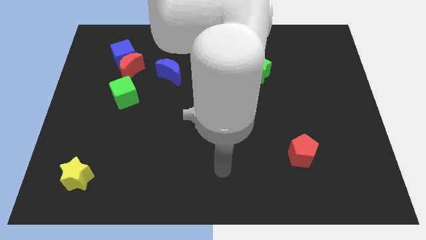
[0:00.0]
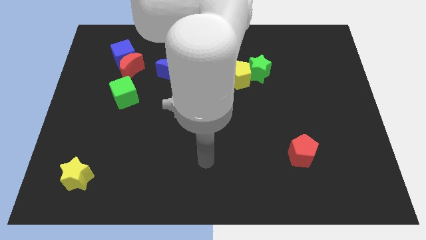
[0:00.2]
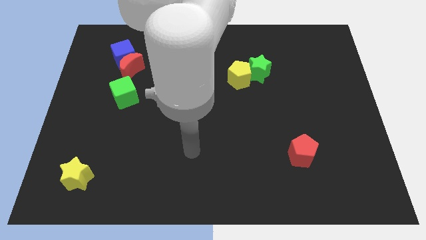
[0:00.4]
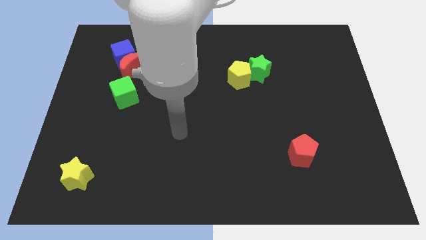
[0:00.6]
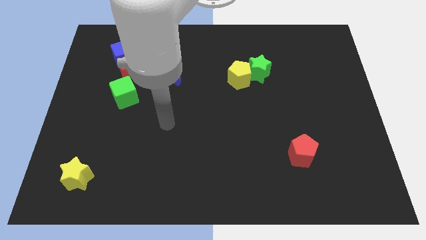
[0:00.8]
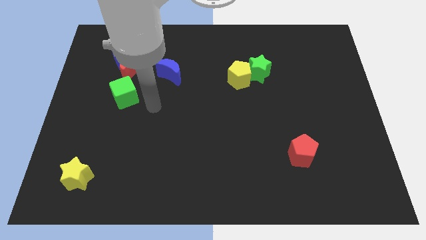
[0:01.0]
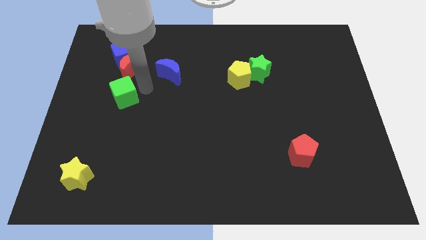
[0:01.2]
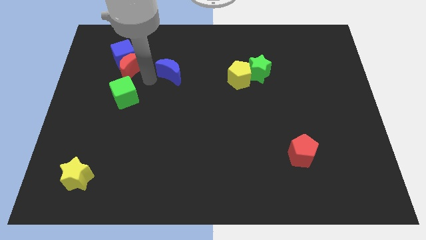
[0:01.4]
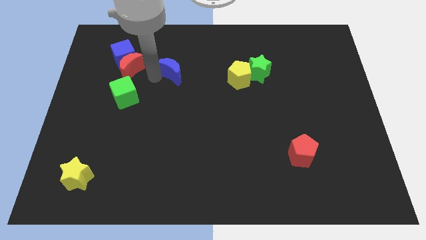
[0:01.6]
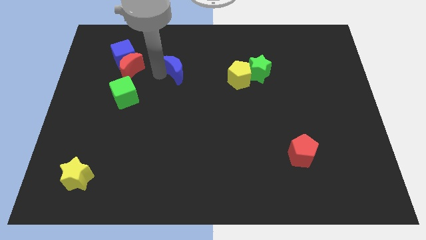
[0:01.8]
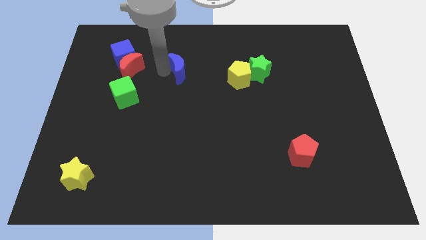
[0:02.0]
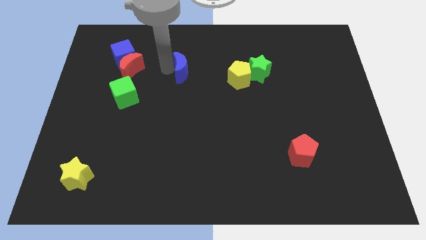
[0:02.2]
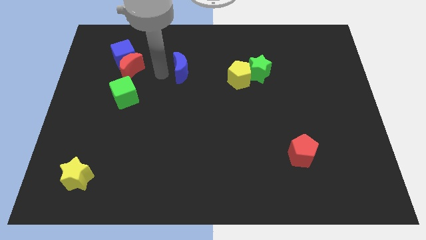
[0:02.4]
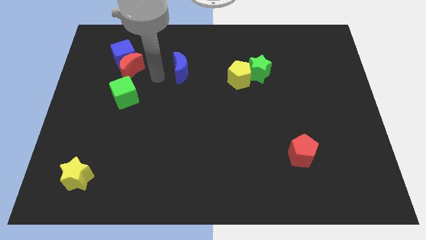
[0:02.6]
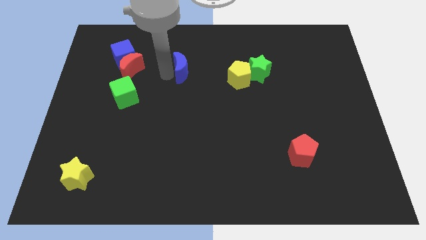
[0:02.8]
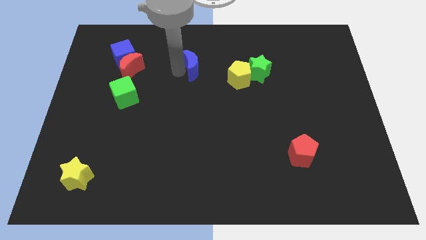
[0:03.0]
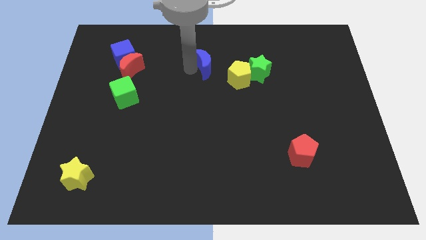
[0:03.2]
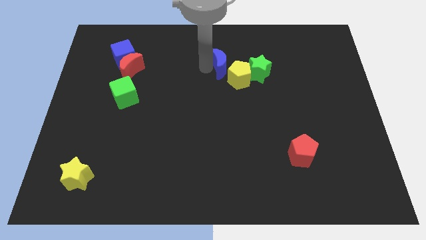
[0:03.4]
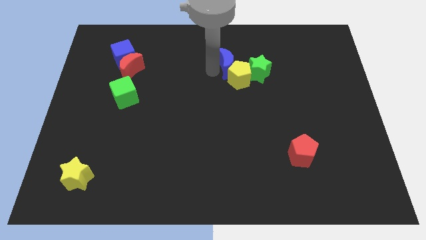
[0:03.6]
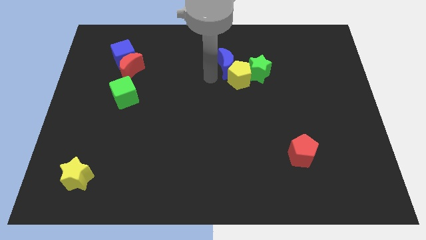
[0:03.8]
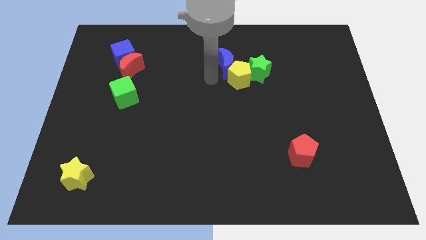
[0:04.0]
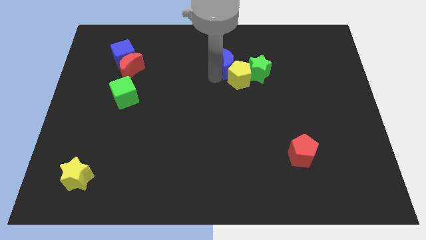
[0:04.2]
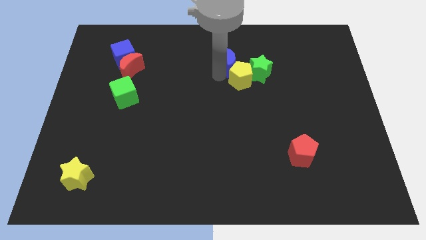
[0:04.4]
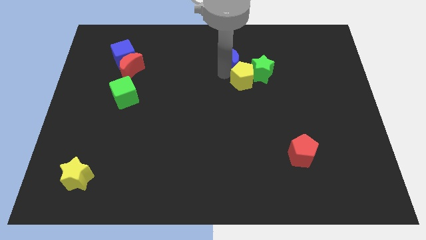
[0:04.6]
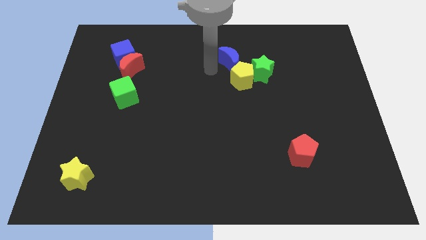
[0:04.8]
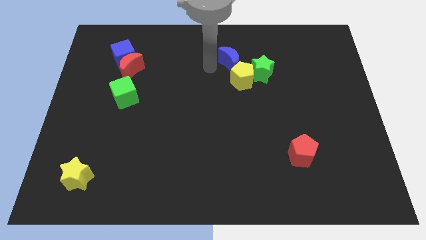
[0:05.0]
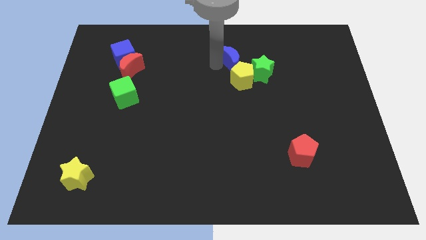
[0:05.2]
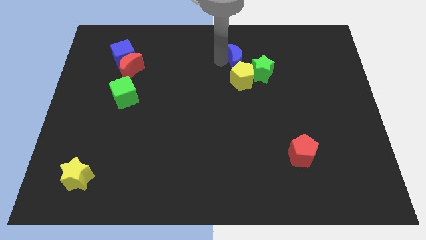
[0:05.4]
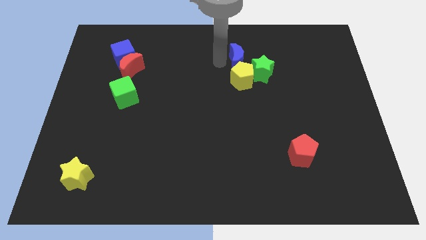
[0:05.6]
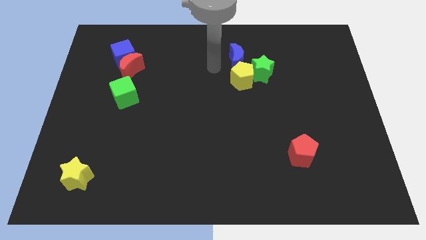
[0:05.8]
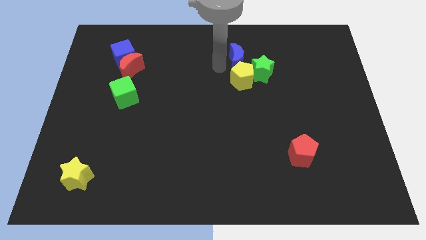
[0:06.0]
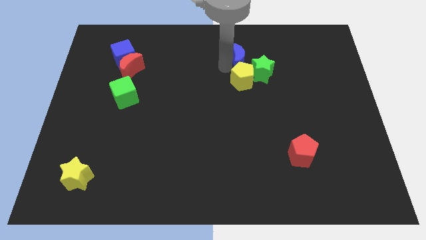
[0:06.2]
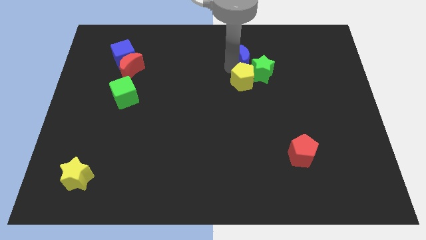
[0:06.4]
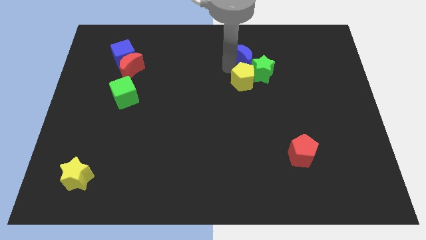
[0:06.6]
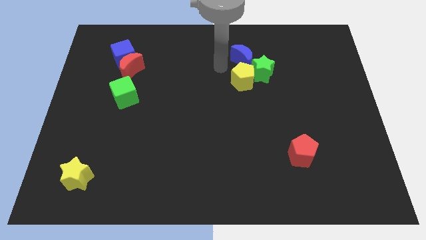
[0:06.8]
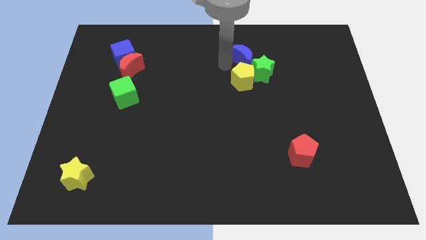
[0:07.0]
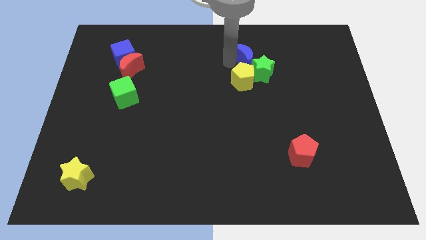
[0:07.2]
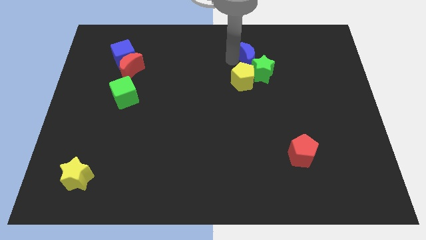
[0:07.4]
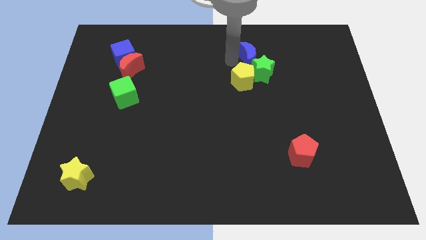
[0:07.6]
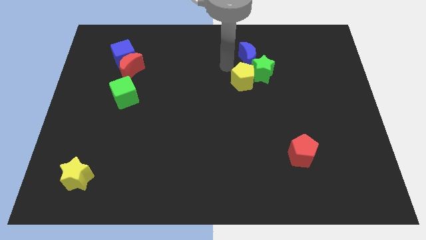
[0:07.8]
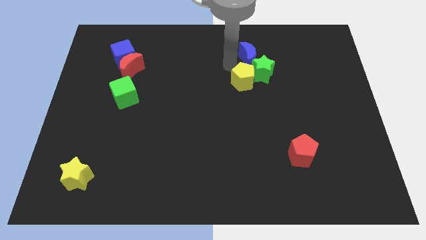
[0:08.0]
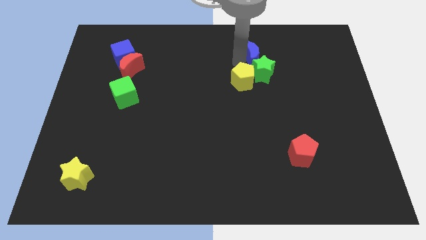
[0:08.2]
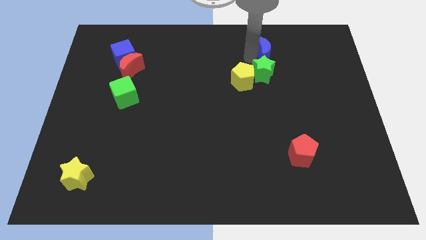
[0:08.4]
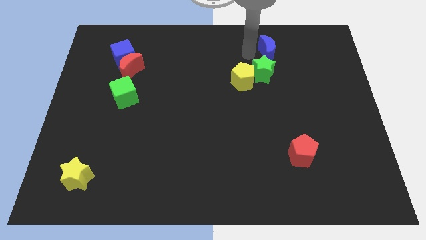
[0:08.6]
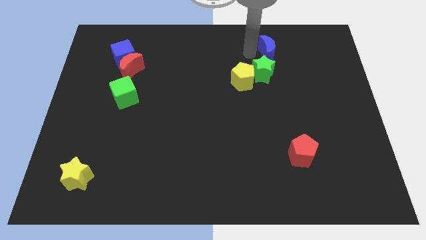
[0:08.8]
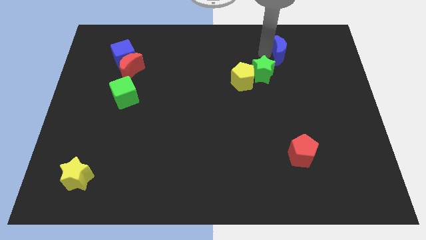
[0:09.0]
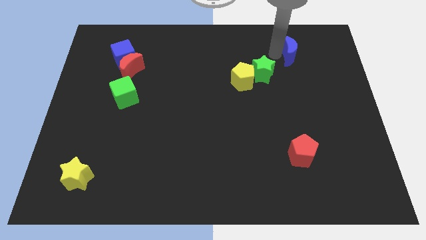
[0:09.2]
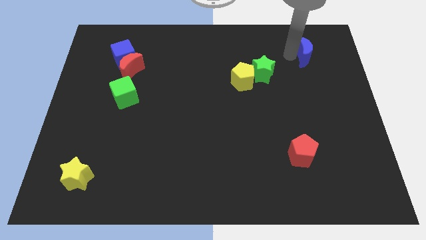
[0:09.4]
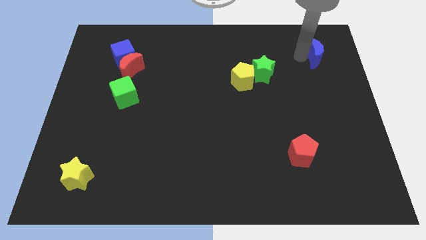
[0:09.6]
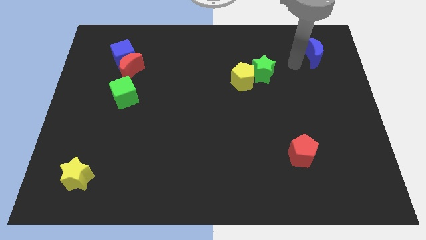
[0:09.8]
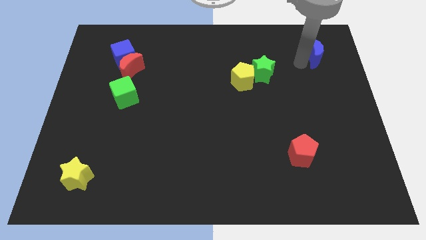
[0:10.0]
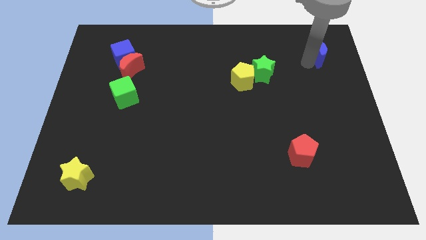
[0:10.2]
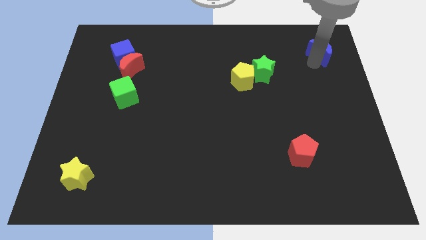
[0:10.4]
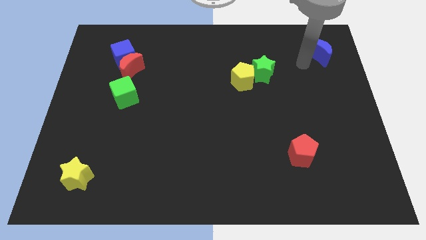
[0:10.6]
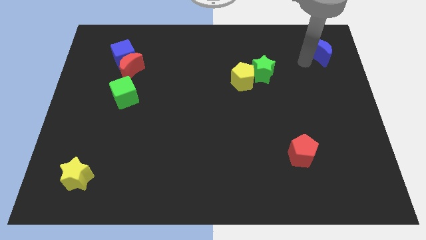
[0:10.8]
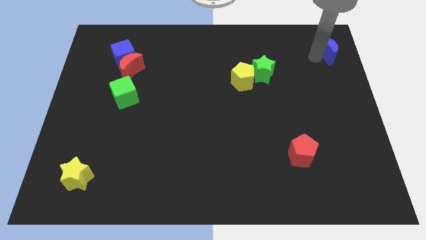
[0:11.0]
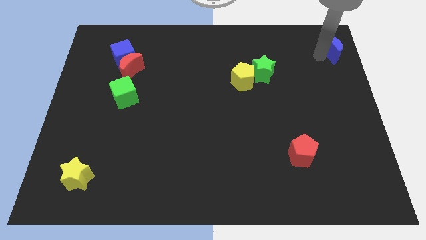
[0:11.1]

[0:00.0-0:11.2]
put the blue moon to the top right

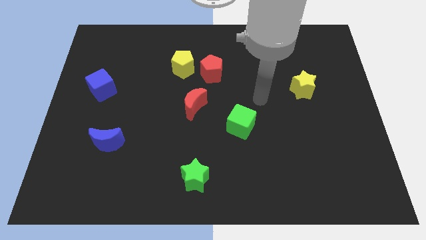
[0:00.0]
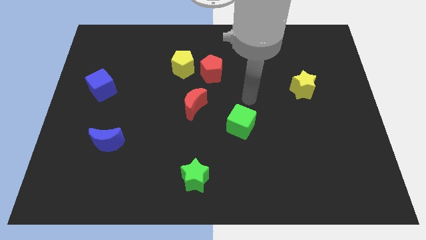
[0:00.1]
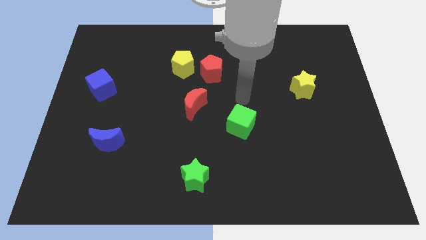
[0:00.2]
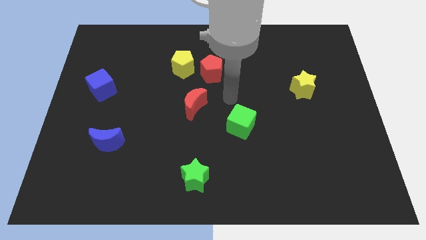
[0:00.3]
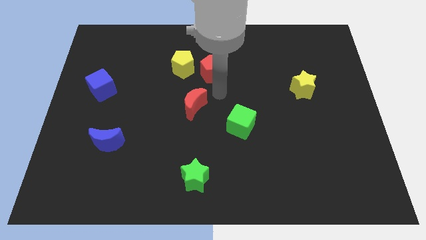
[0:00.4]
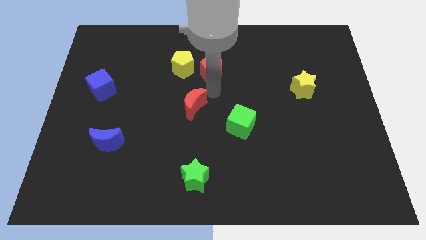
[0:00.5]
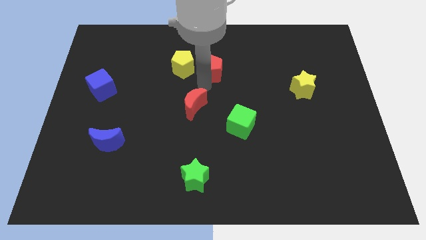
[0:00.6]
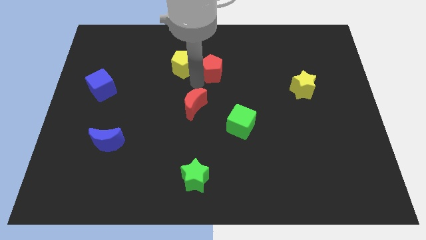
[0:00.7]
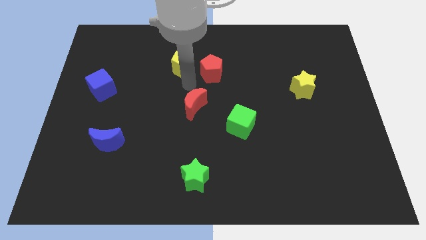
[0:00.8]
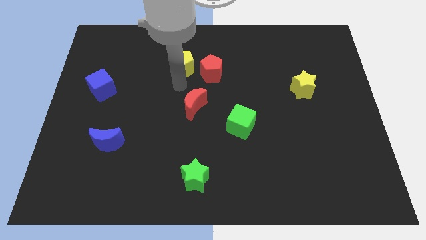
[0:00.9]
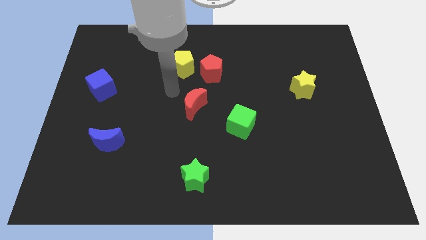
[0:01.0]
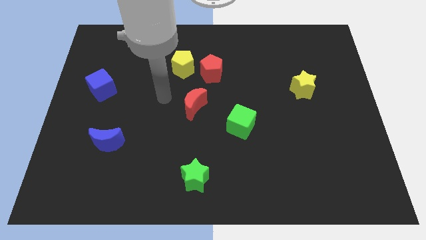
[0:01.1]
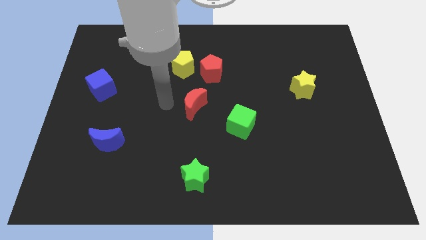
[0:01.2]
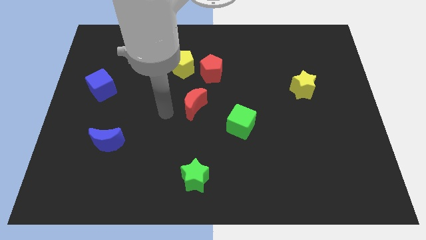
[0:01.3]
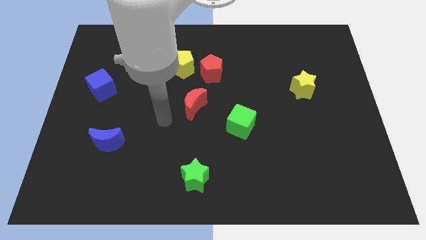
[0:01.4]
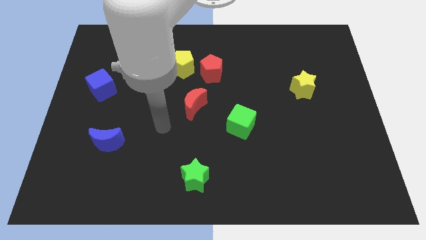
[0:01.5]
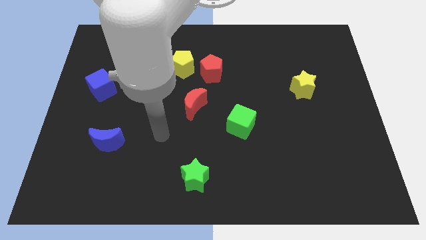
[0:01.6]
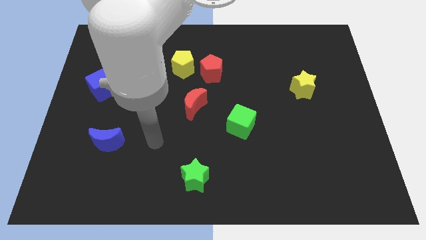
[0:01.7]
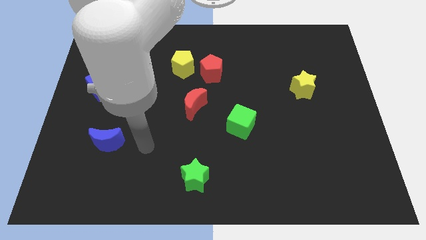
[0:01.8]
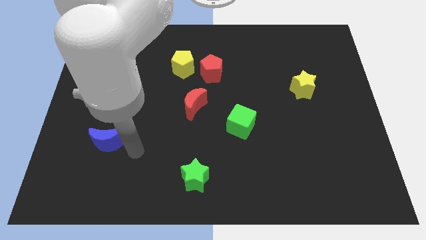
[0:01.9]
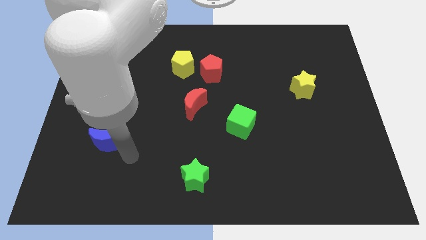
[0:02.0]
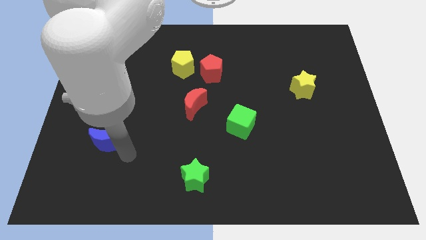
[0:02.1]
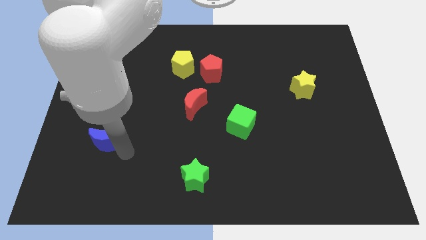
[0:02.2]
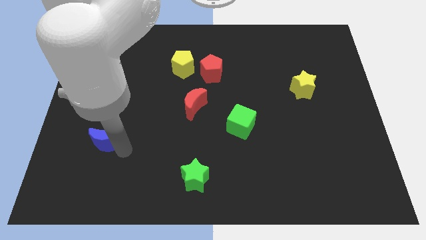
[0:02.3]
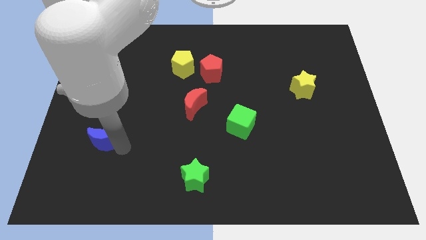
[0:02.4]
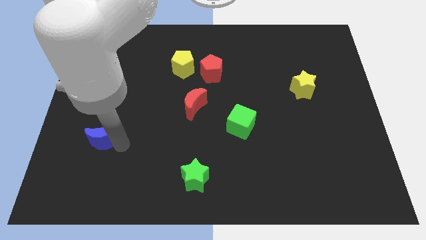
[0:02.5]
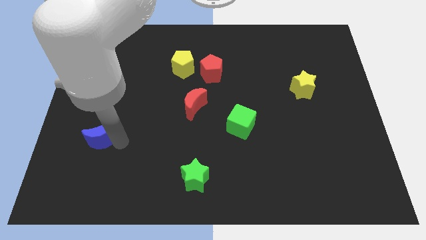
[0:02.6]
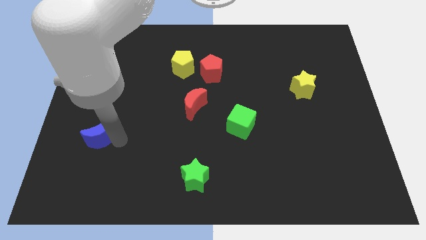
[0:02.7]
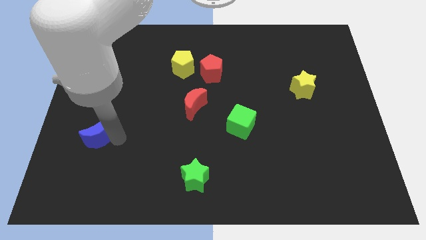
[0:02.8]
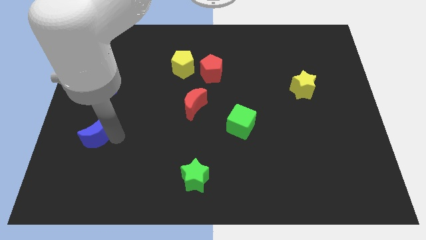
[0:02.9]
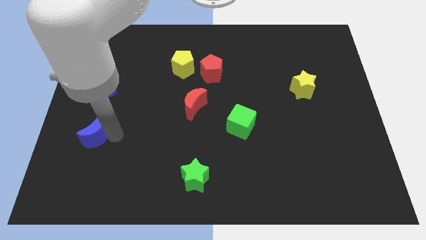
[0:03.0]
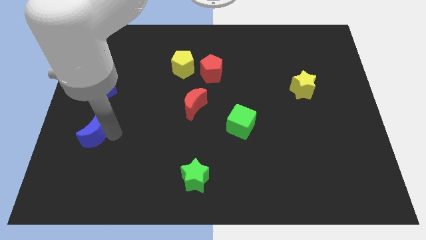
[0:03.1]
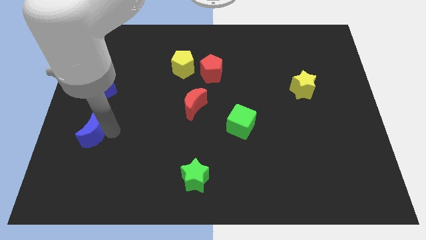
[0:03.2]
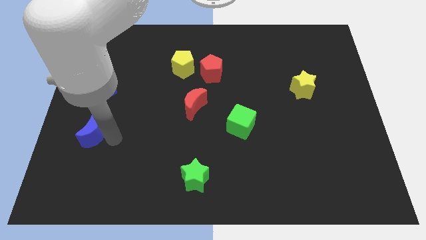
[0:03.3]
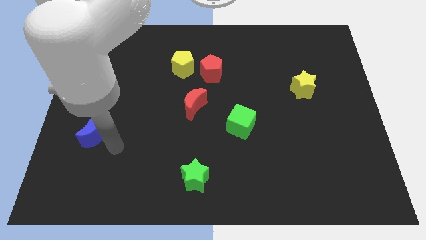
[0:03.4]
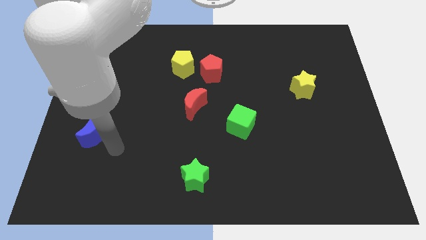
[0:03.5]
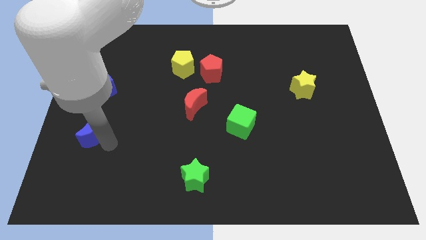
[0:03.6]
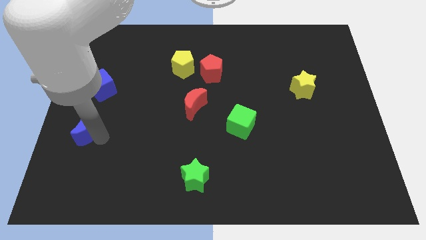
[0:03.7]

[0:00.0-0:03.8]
move the blue moon to the center left
